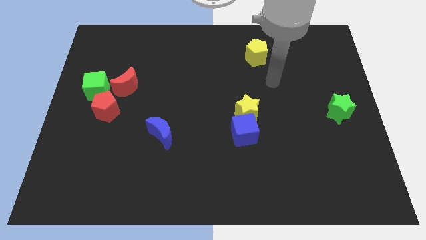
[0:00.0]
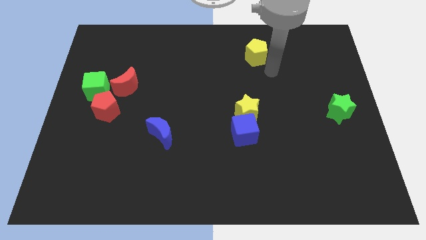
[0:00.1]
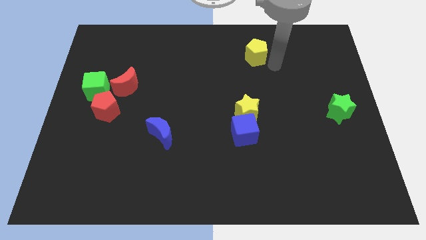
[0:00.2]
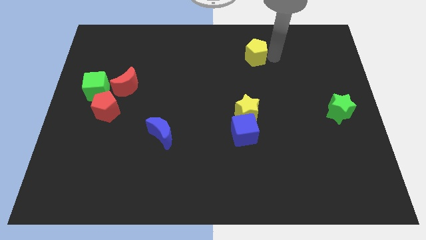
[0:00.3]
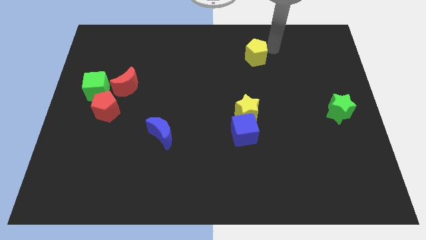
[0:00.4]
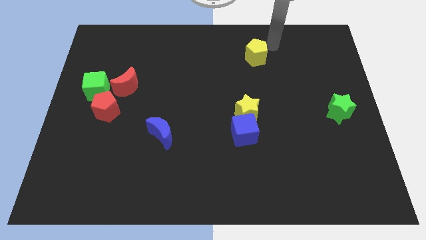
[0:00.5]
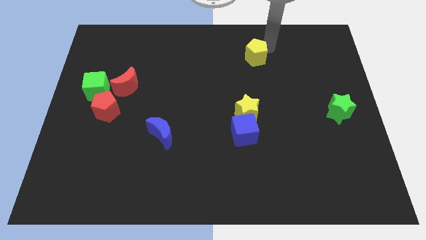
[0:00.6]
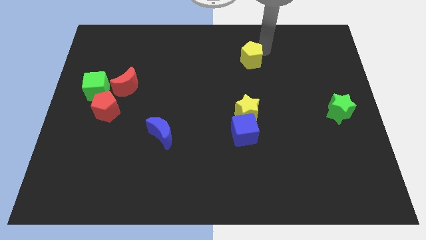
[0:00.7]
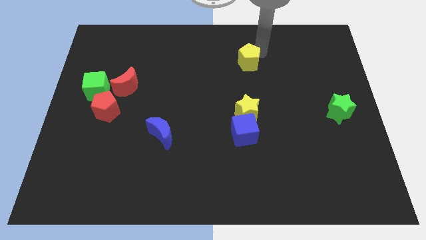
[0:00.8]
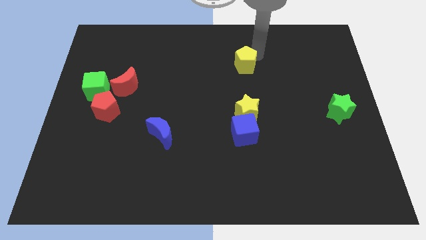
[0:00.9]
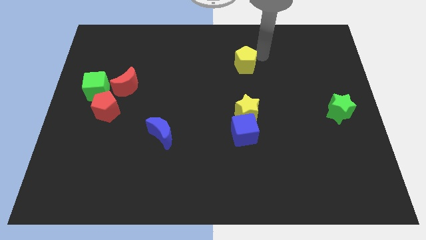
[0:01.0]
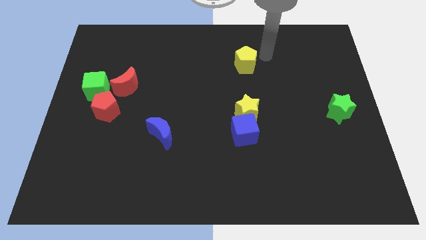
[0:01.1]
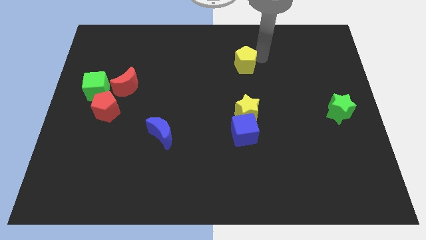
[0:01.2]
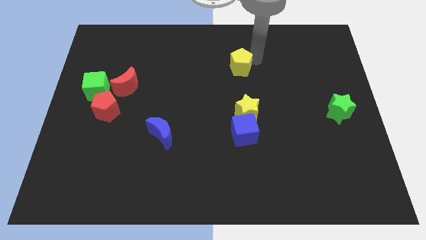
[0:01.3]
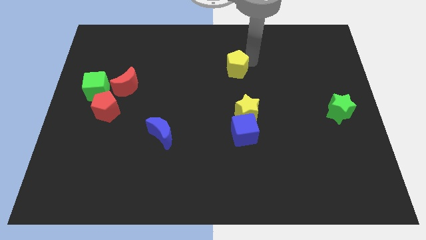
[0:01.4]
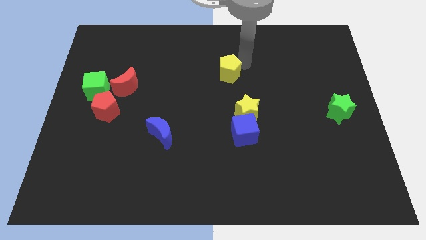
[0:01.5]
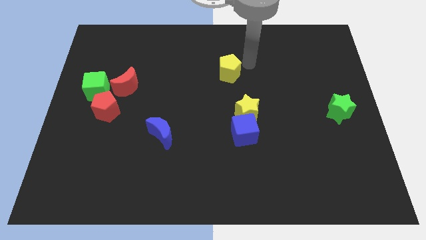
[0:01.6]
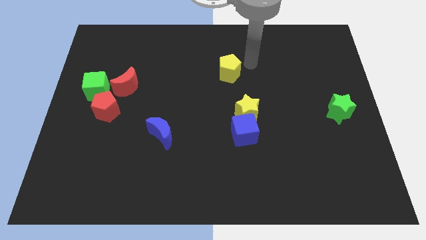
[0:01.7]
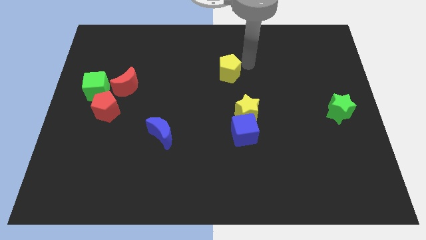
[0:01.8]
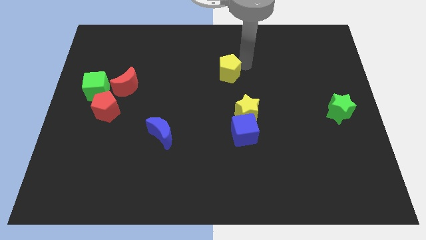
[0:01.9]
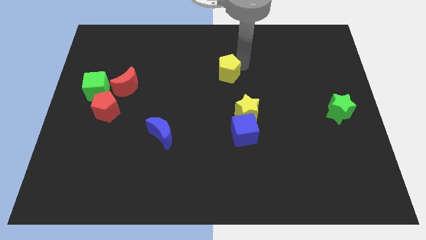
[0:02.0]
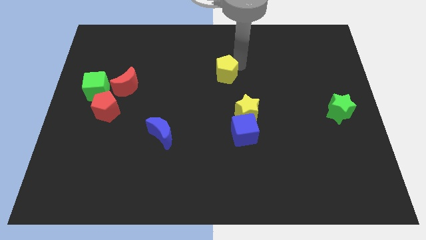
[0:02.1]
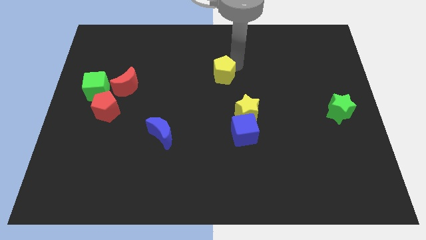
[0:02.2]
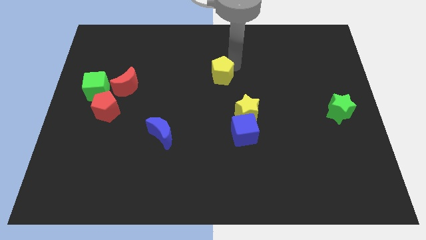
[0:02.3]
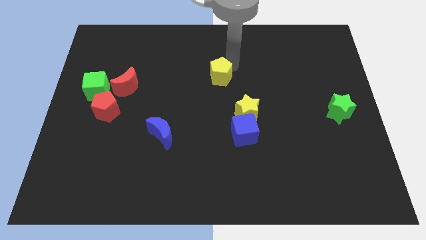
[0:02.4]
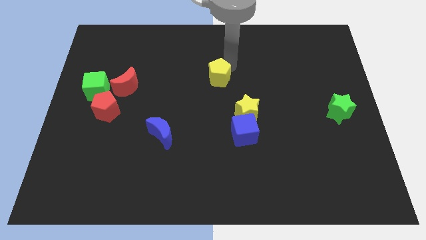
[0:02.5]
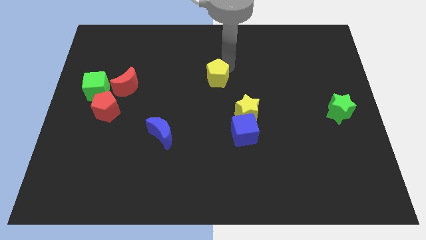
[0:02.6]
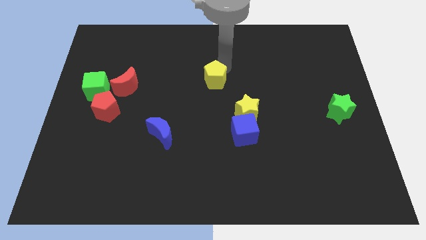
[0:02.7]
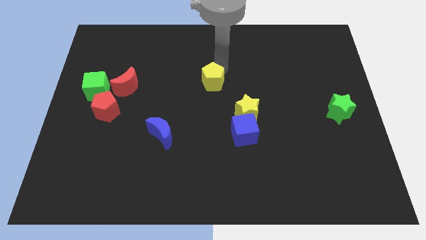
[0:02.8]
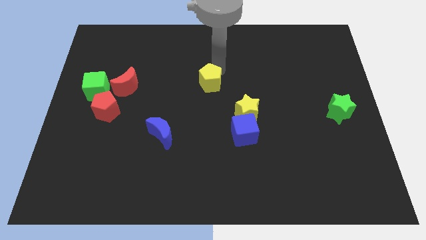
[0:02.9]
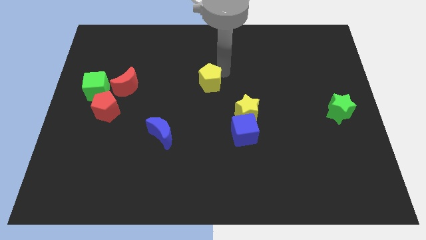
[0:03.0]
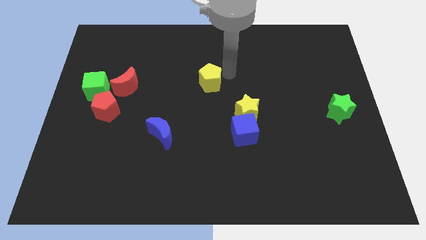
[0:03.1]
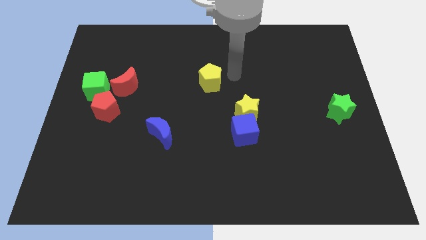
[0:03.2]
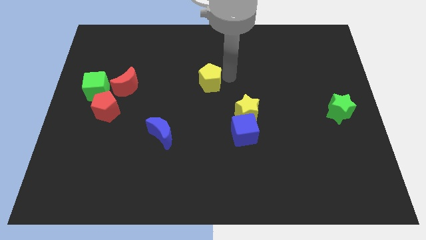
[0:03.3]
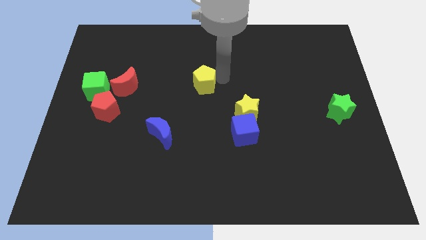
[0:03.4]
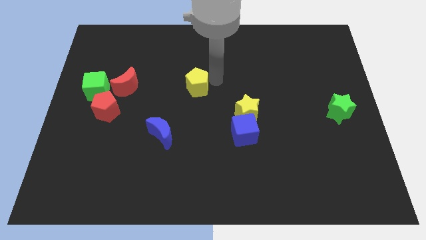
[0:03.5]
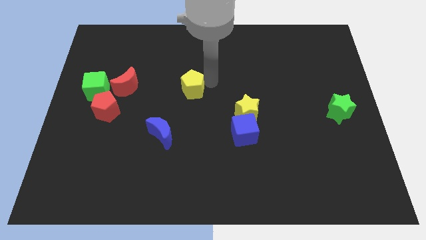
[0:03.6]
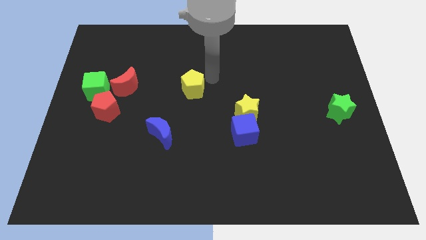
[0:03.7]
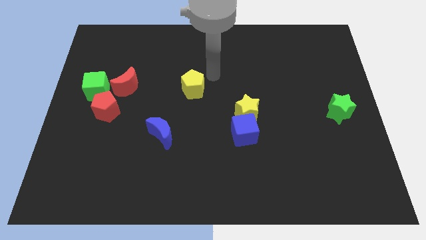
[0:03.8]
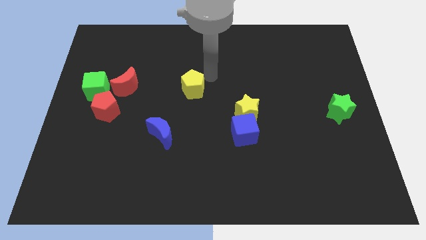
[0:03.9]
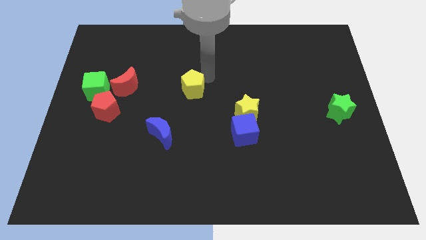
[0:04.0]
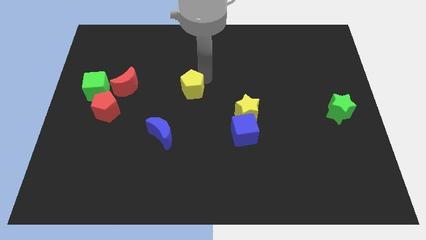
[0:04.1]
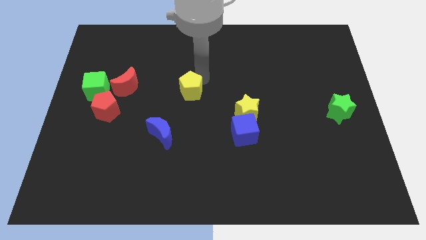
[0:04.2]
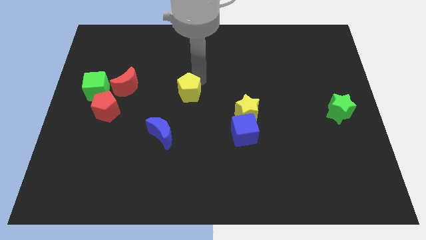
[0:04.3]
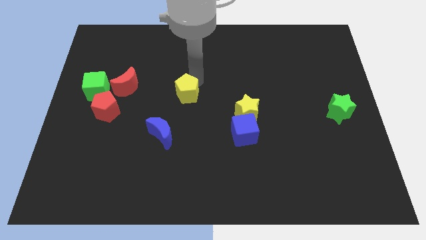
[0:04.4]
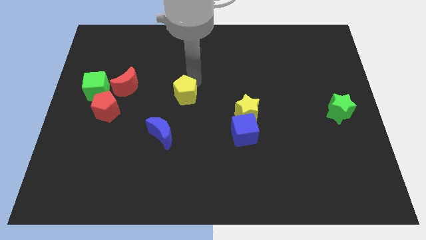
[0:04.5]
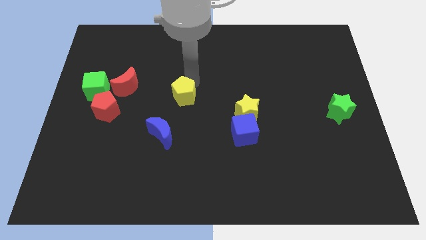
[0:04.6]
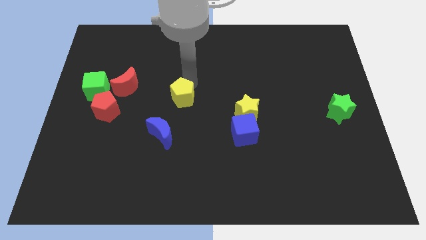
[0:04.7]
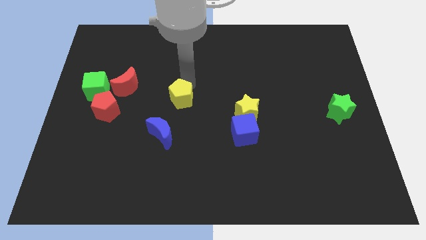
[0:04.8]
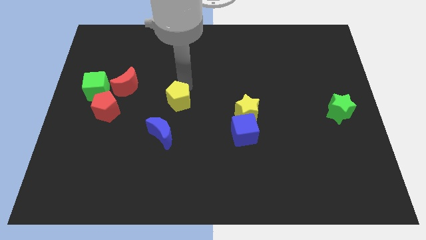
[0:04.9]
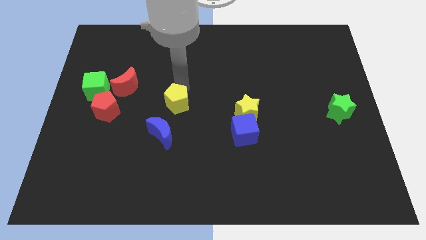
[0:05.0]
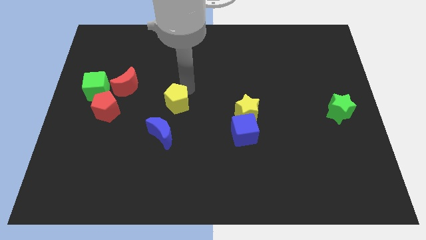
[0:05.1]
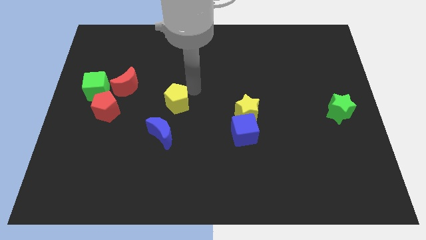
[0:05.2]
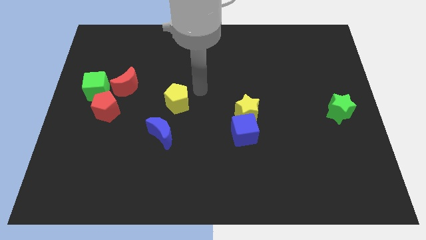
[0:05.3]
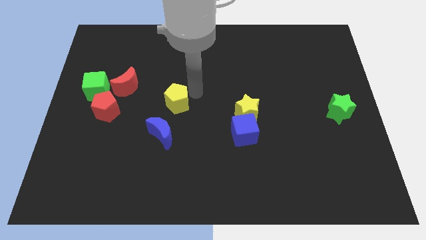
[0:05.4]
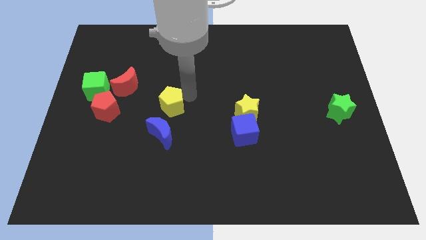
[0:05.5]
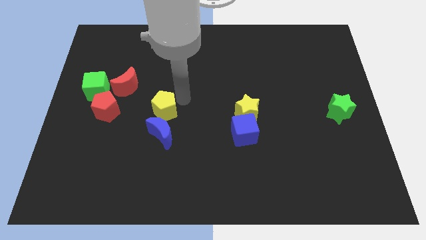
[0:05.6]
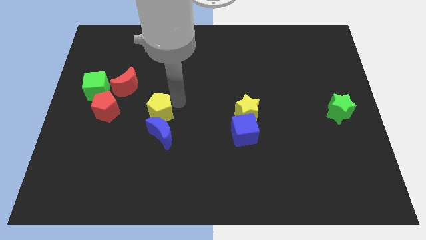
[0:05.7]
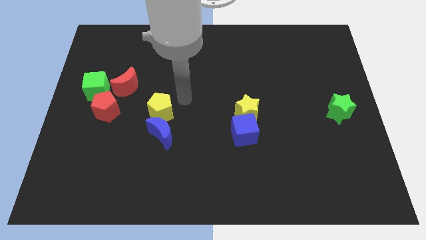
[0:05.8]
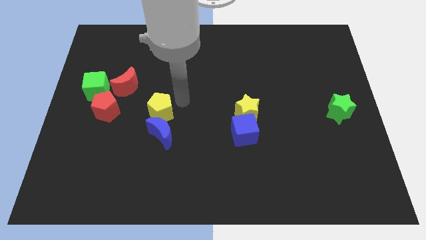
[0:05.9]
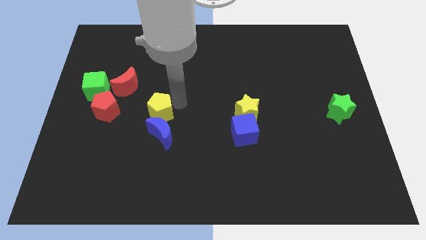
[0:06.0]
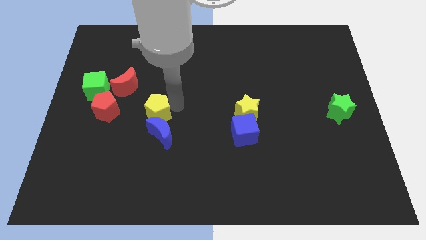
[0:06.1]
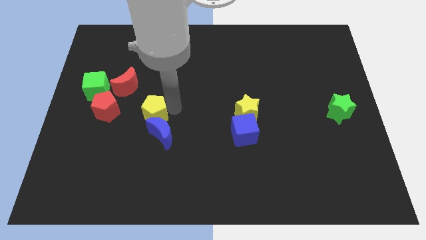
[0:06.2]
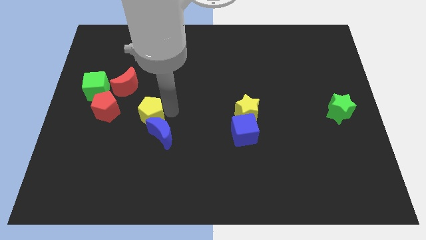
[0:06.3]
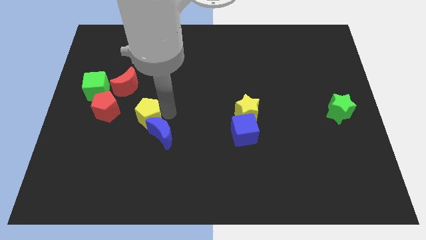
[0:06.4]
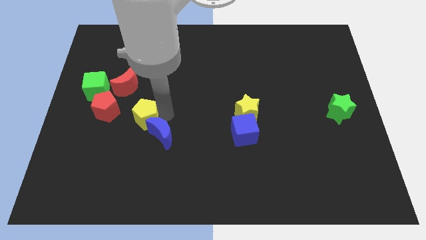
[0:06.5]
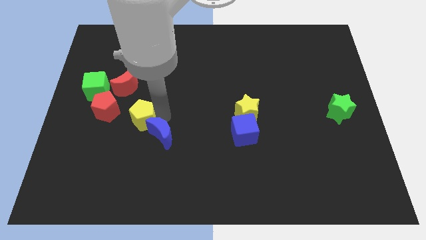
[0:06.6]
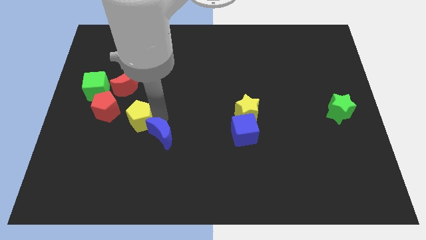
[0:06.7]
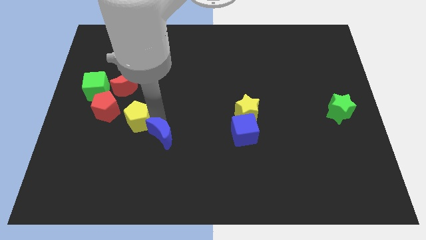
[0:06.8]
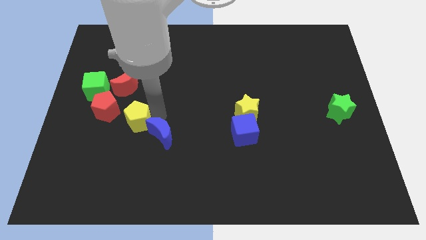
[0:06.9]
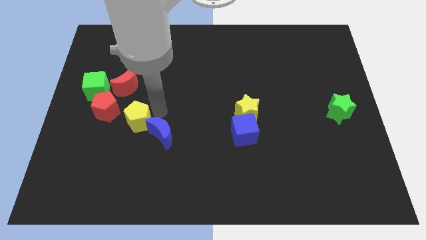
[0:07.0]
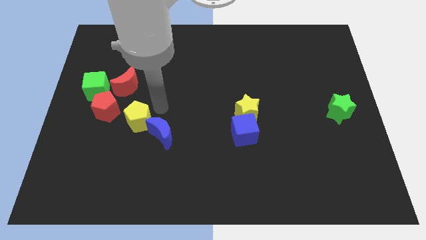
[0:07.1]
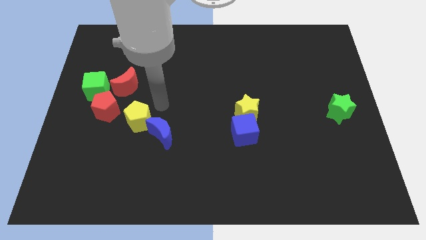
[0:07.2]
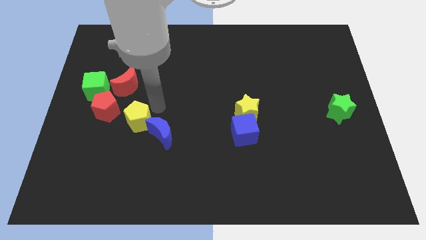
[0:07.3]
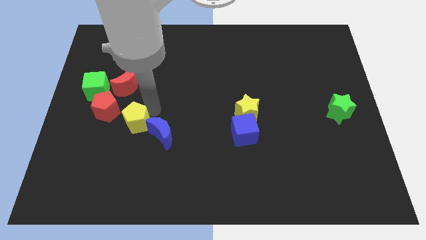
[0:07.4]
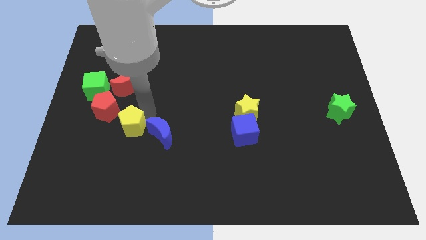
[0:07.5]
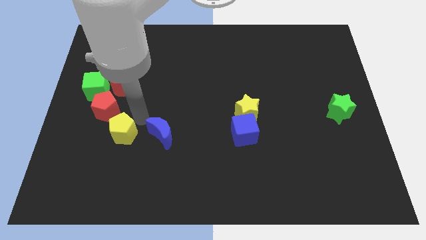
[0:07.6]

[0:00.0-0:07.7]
move the yellow pentagon to the bottom of the red pentagon
